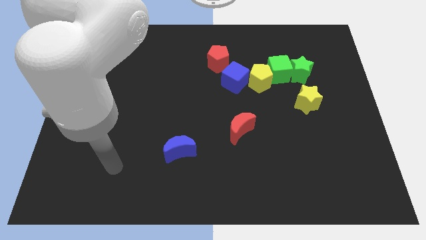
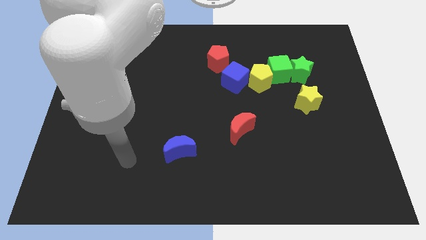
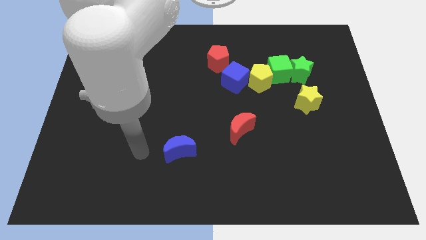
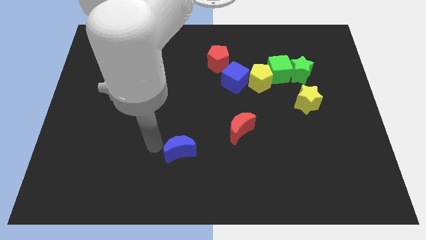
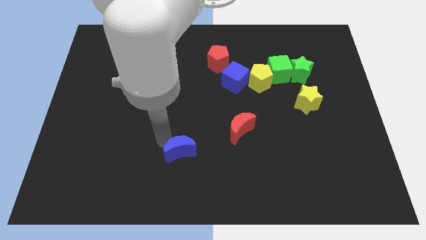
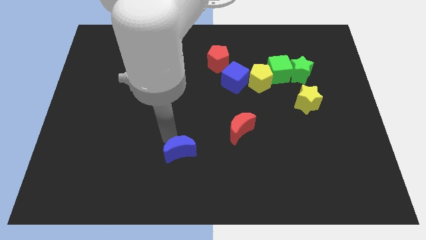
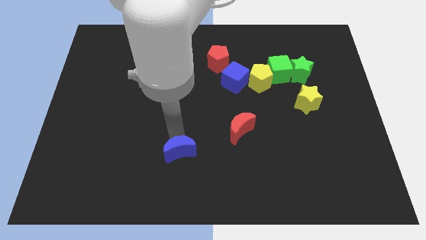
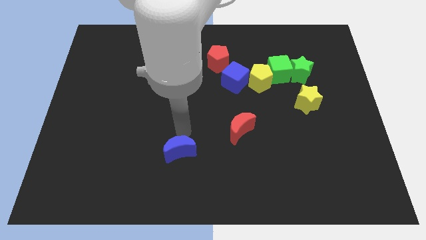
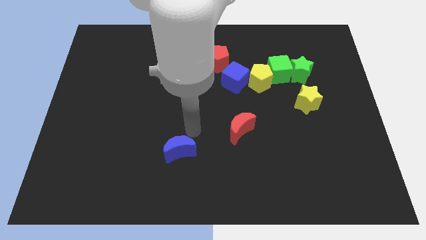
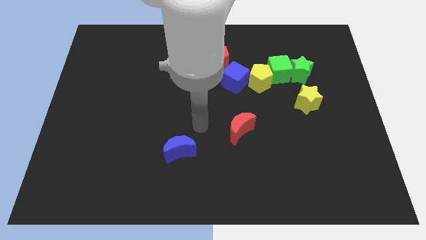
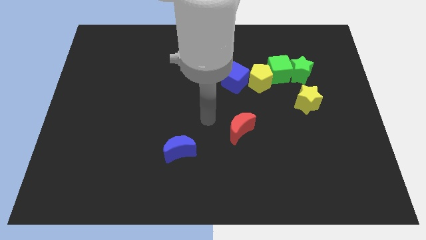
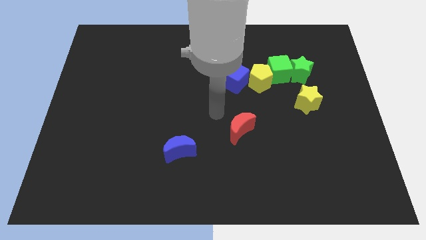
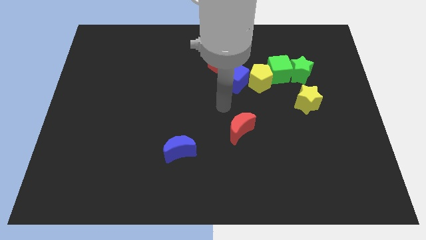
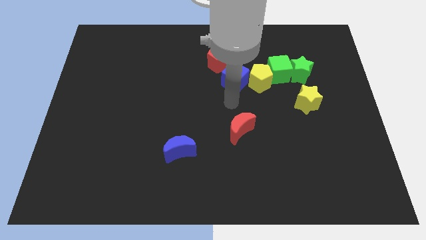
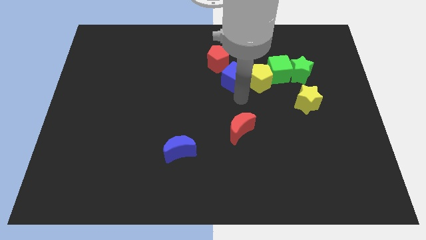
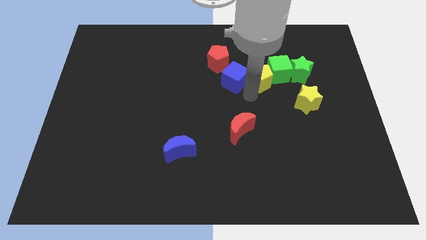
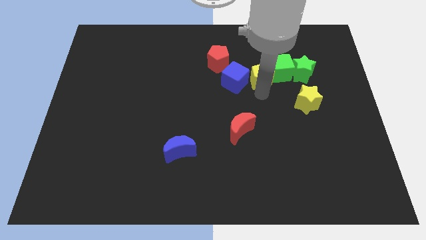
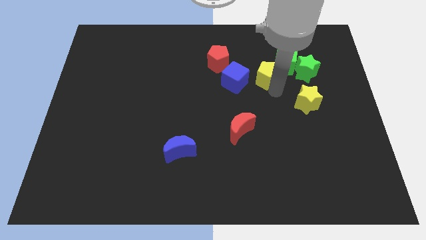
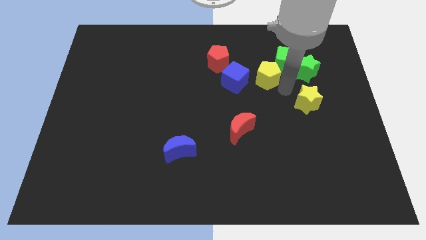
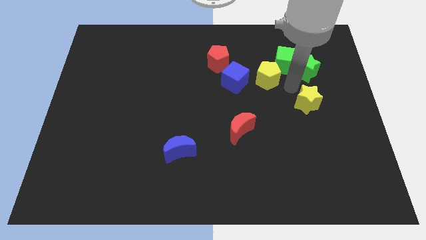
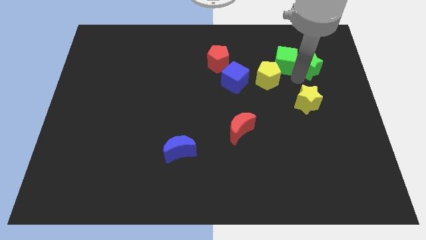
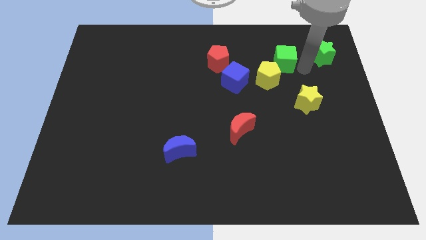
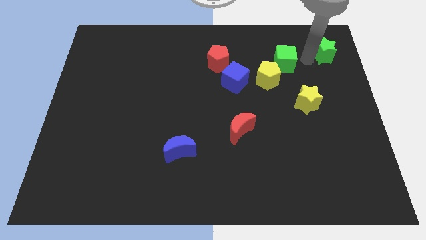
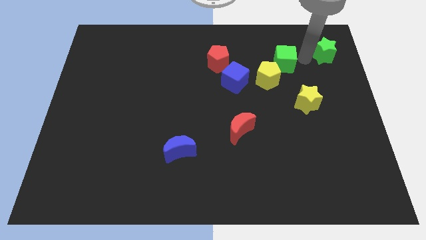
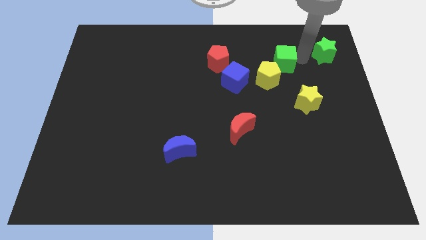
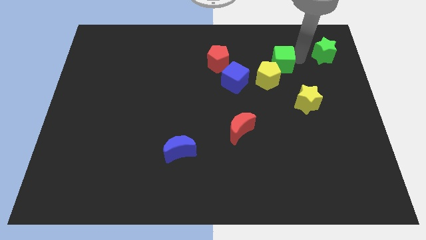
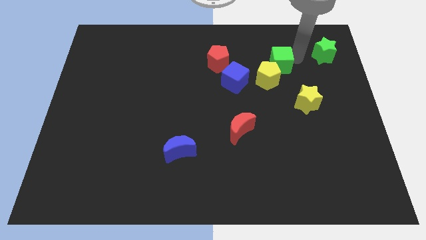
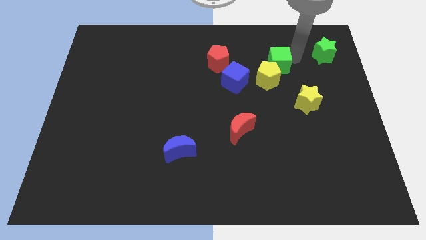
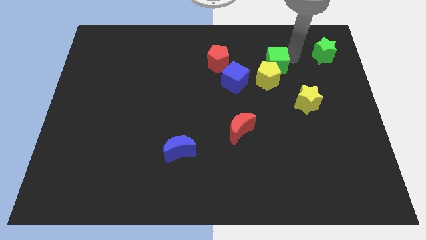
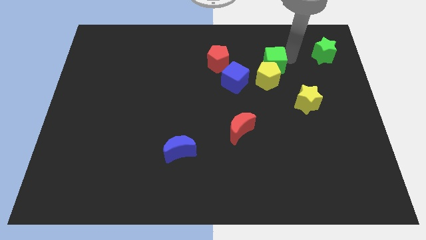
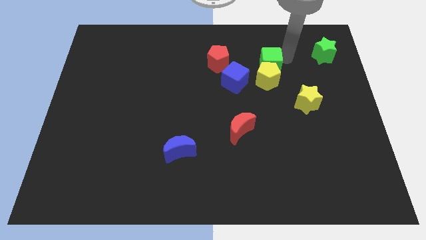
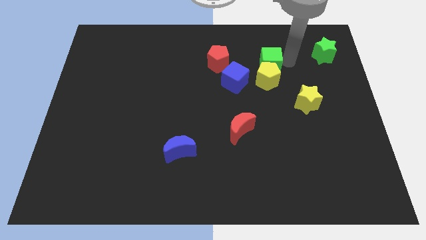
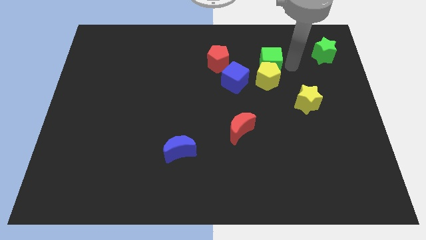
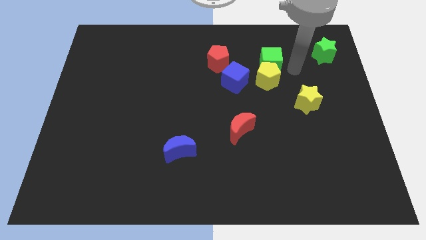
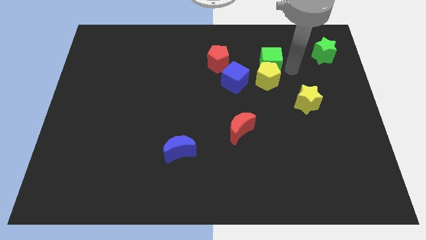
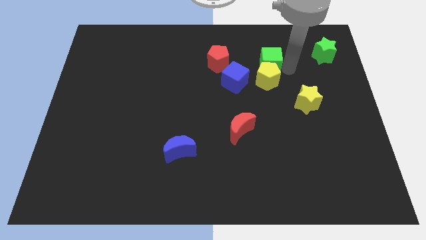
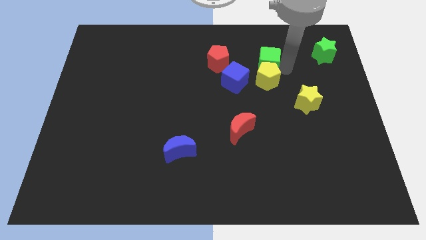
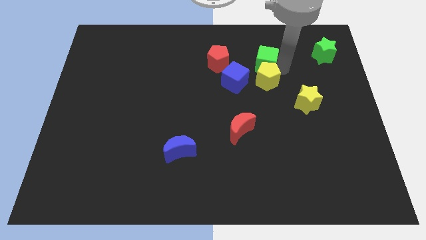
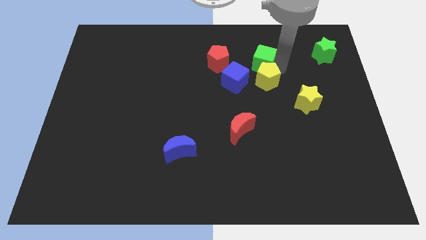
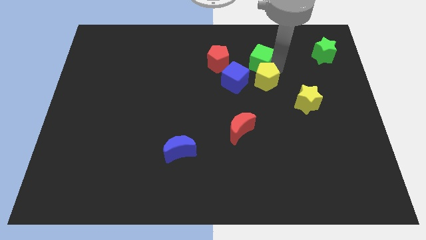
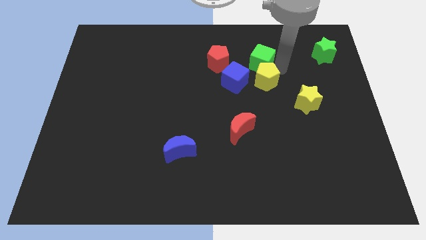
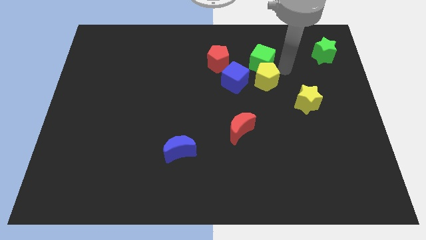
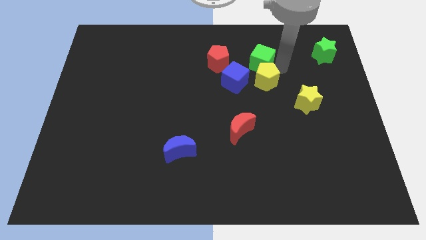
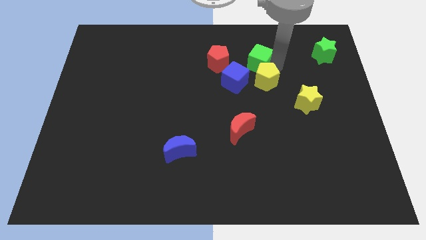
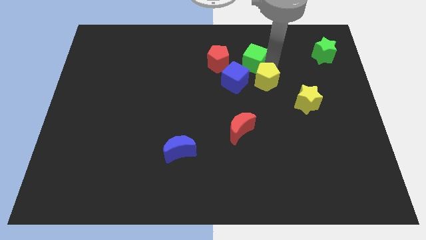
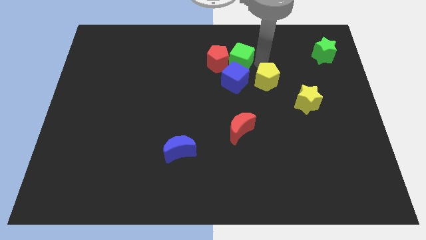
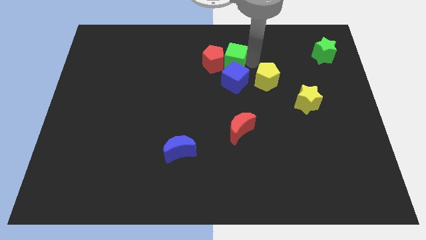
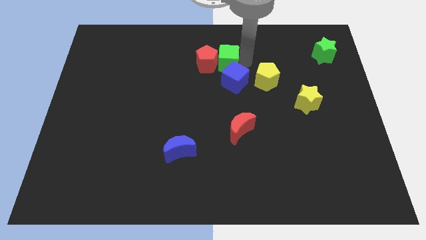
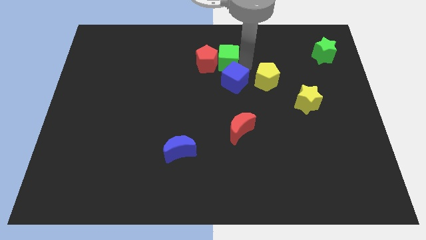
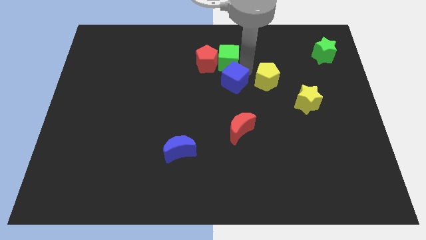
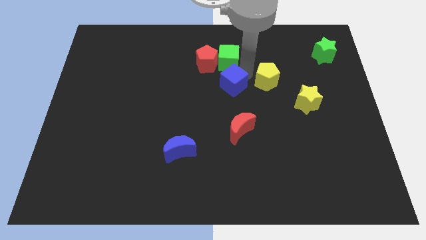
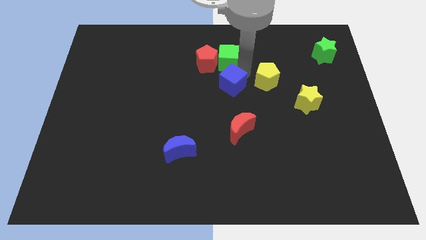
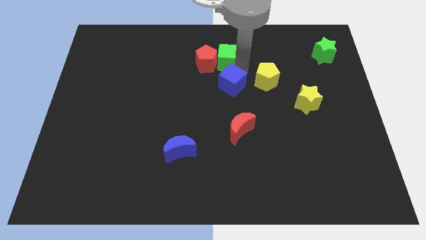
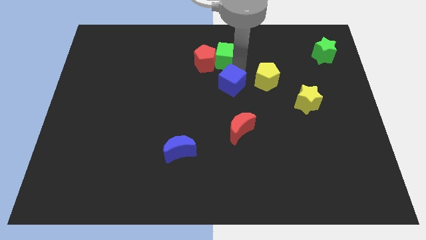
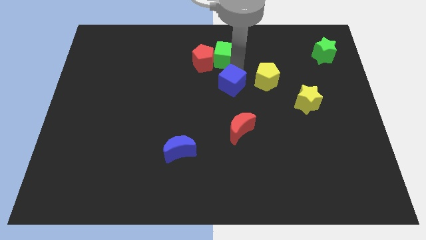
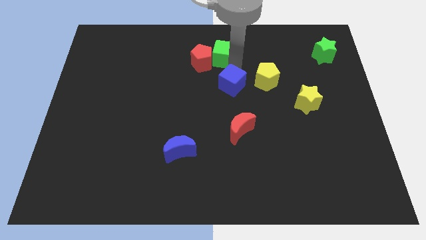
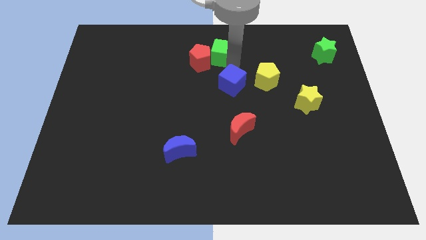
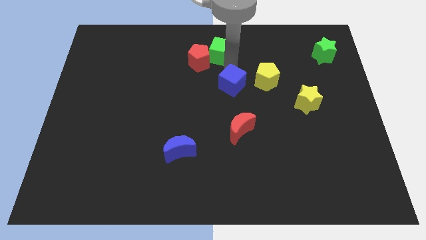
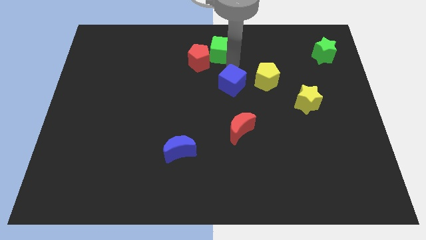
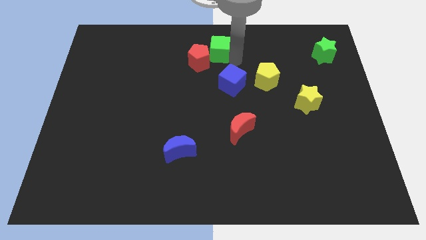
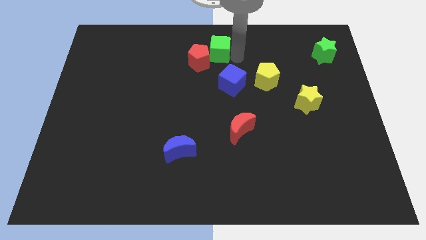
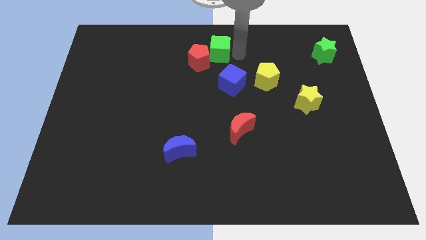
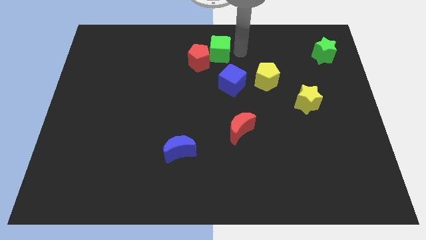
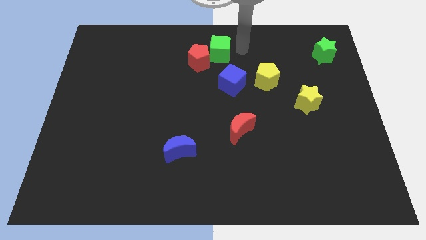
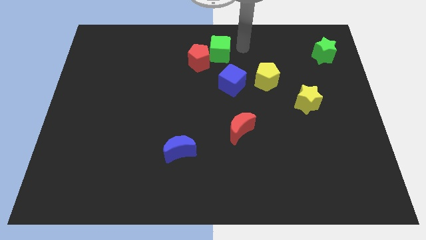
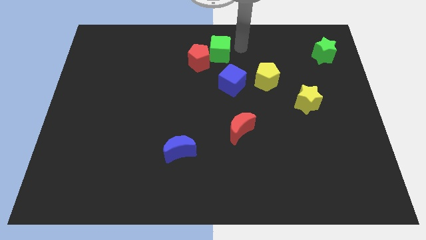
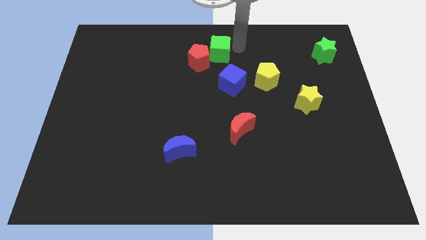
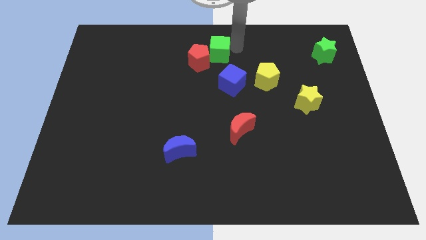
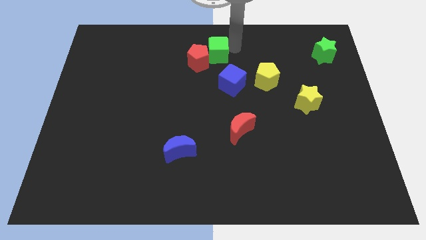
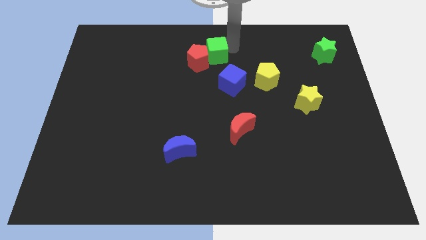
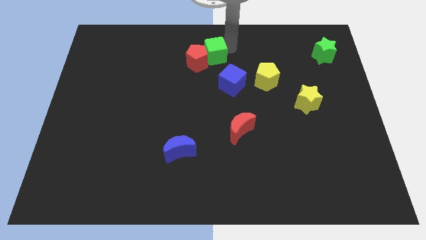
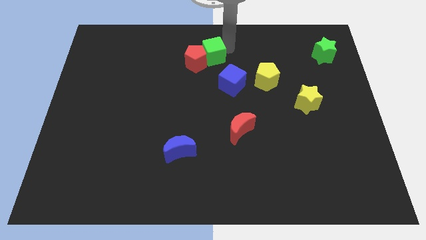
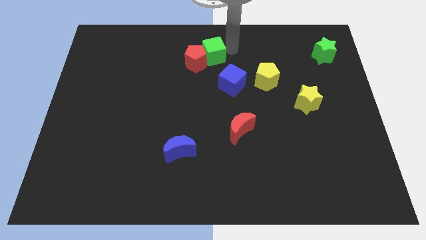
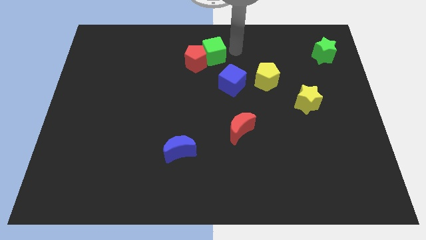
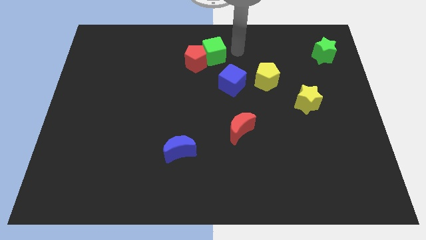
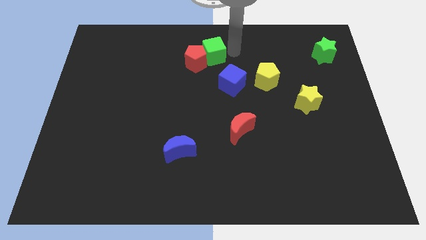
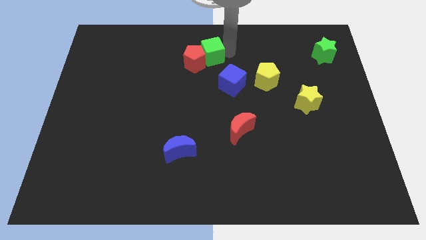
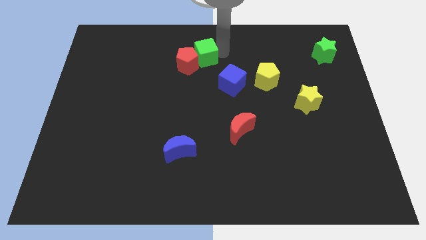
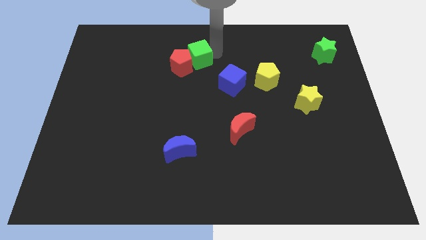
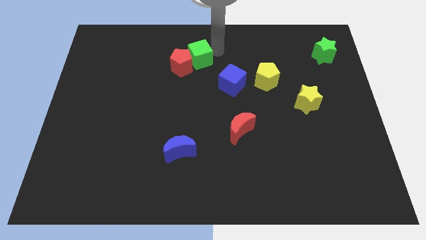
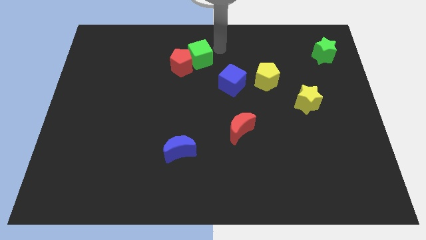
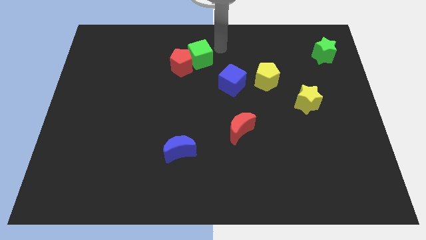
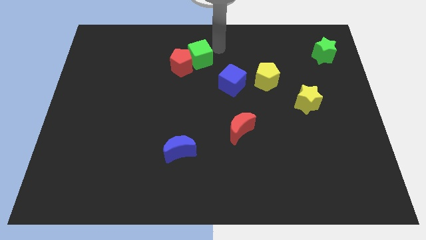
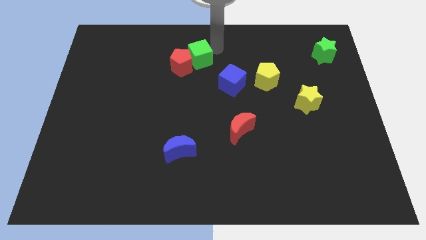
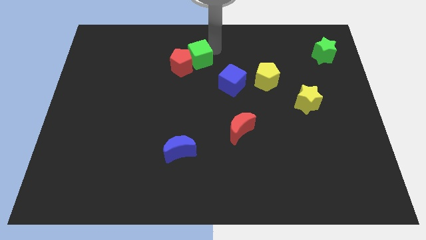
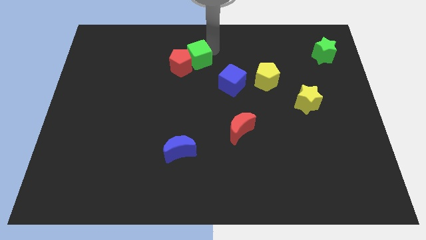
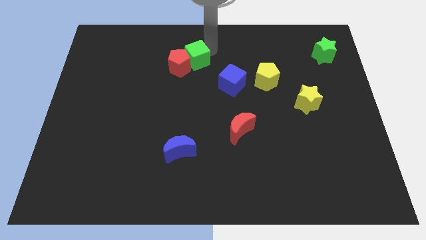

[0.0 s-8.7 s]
move the green cube to the left
